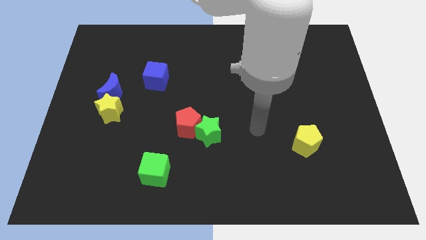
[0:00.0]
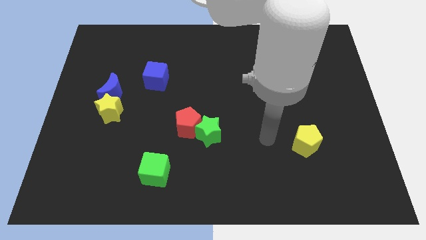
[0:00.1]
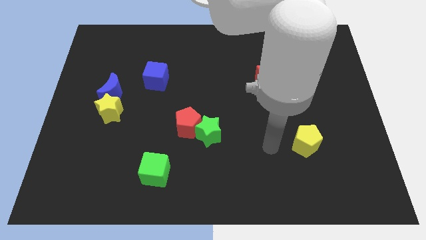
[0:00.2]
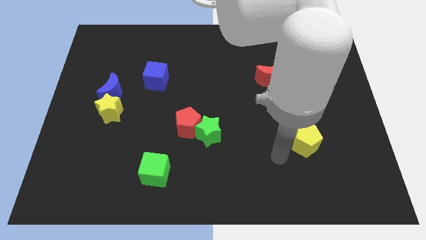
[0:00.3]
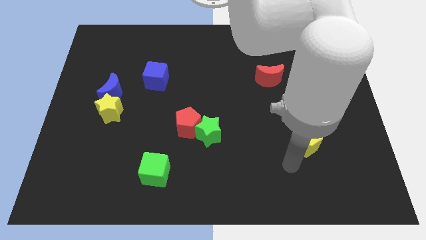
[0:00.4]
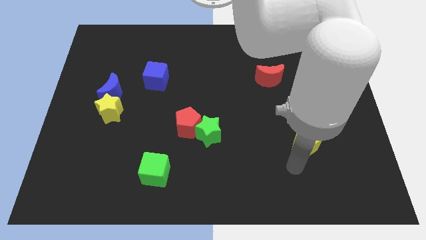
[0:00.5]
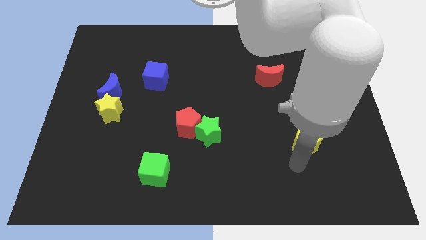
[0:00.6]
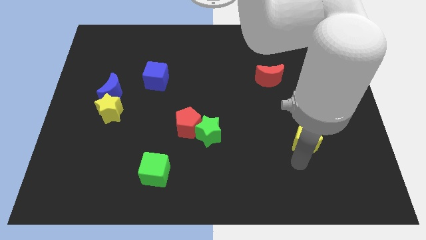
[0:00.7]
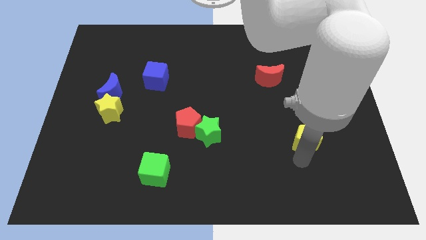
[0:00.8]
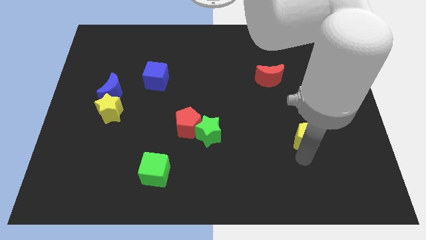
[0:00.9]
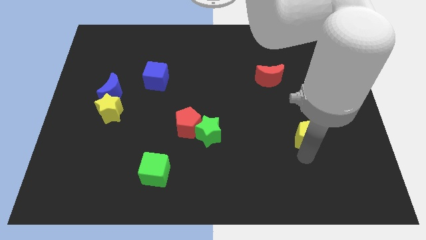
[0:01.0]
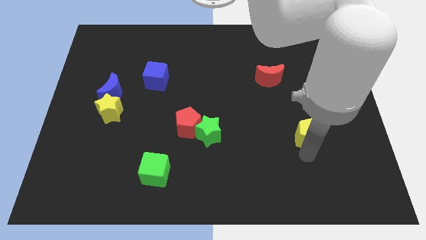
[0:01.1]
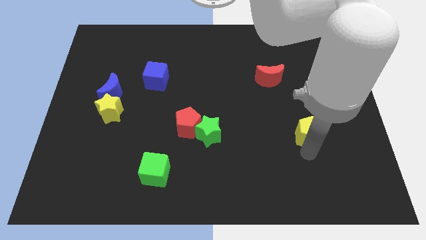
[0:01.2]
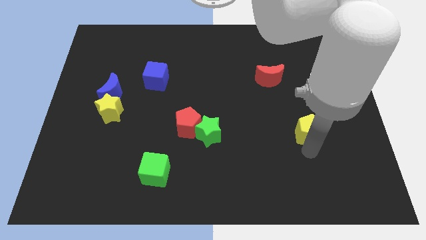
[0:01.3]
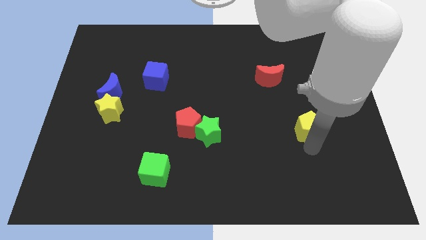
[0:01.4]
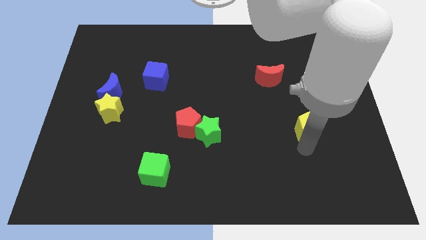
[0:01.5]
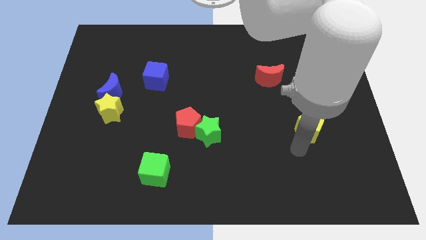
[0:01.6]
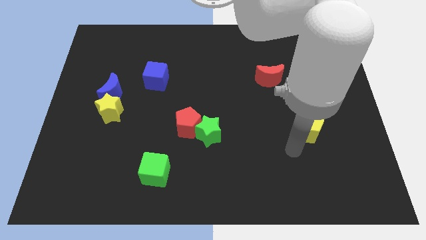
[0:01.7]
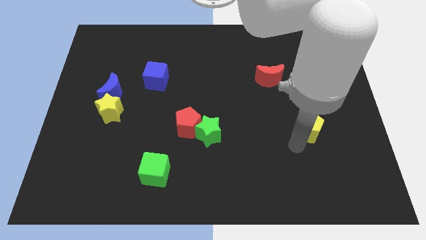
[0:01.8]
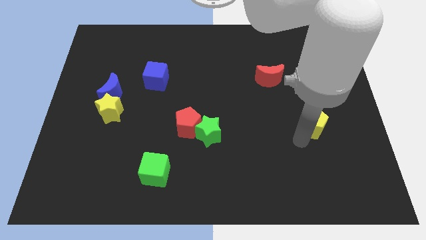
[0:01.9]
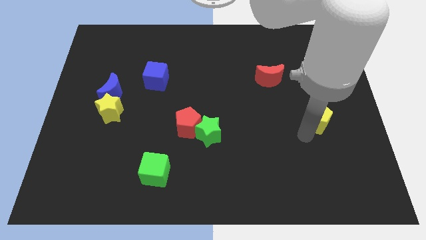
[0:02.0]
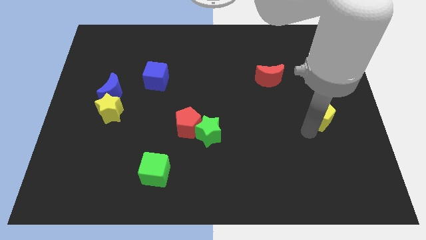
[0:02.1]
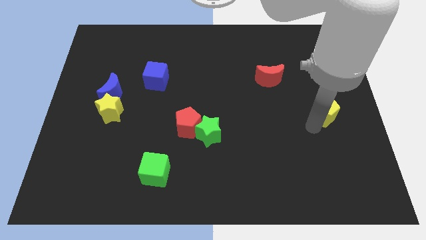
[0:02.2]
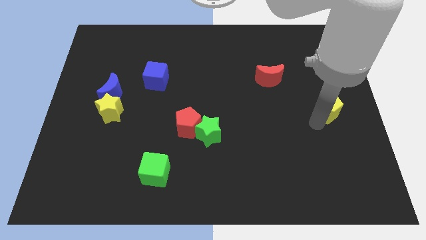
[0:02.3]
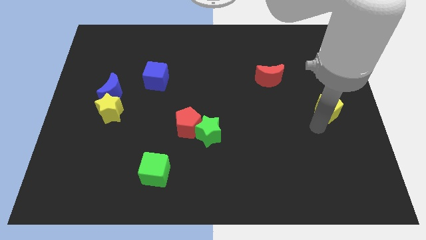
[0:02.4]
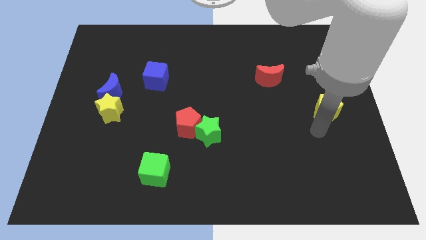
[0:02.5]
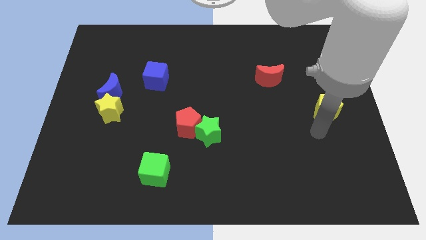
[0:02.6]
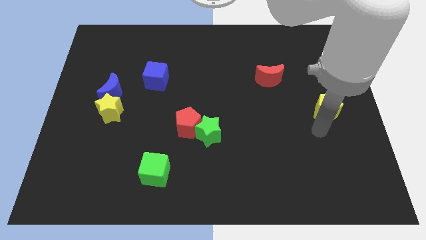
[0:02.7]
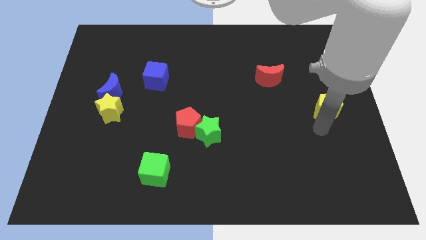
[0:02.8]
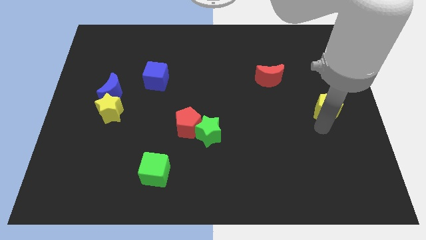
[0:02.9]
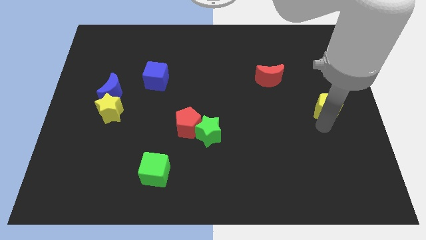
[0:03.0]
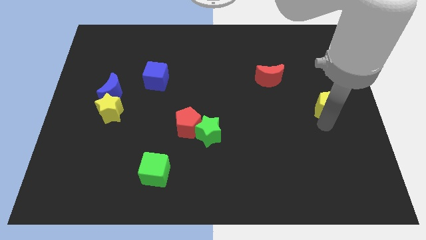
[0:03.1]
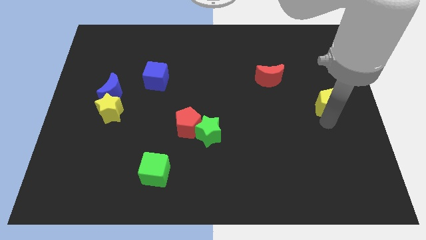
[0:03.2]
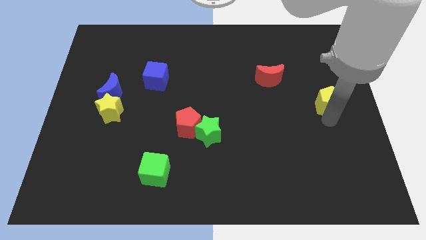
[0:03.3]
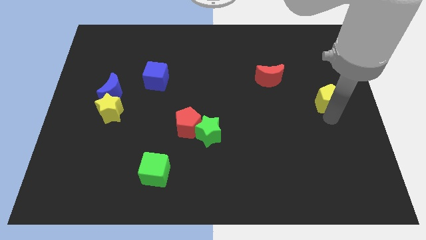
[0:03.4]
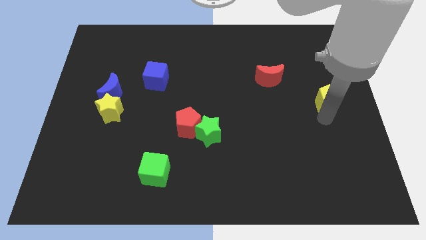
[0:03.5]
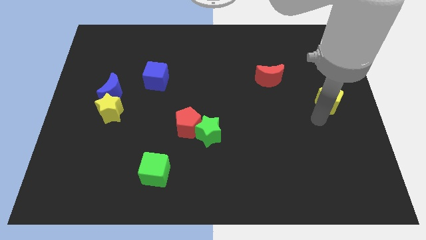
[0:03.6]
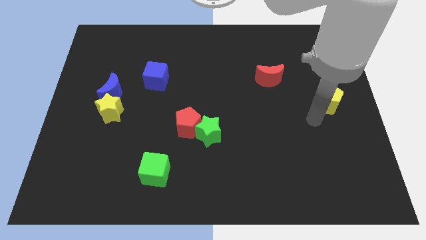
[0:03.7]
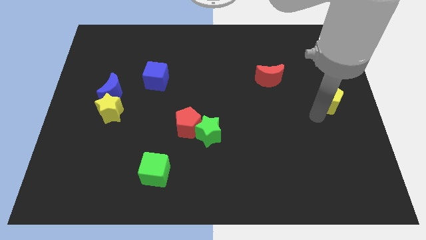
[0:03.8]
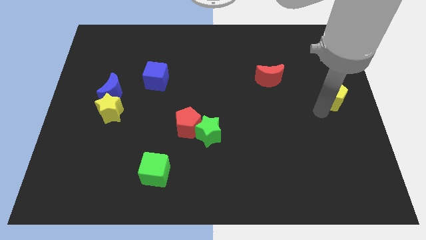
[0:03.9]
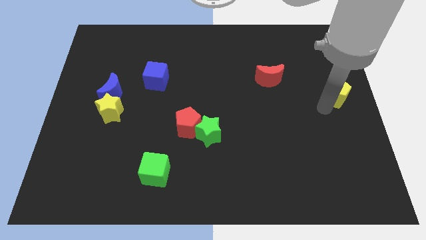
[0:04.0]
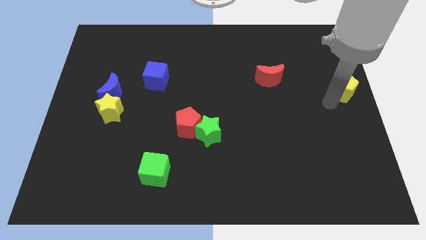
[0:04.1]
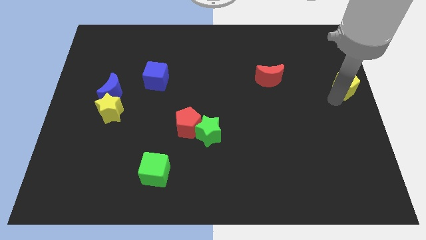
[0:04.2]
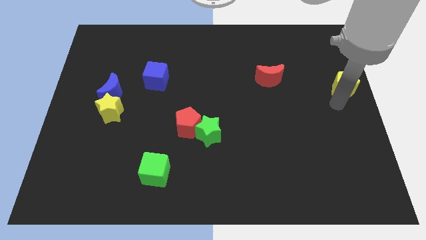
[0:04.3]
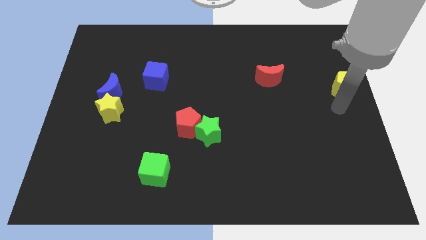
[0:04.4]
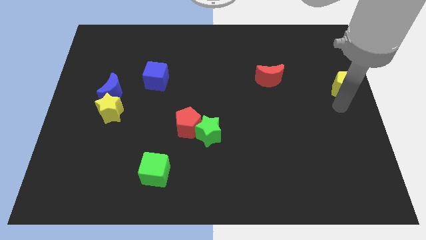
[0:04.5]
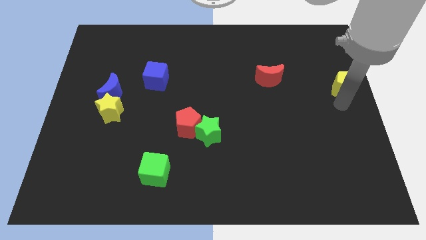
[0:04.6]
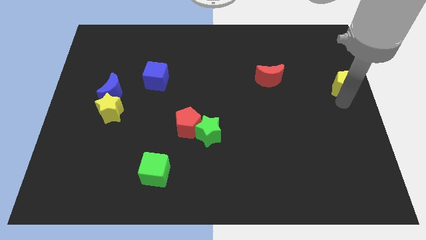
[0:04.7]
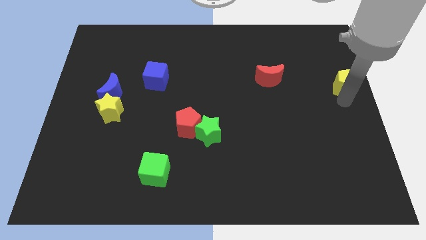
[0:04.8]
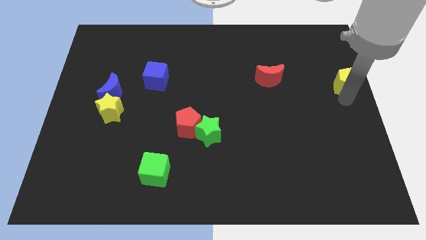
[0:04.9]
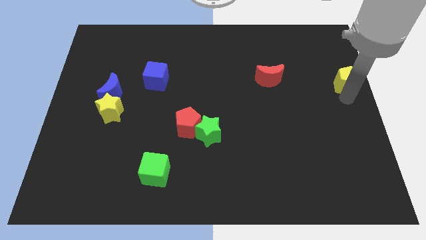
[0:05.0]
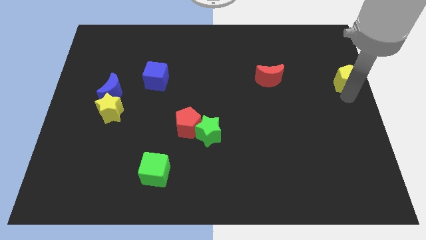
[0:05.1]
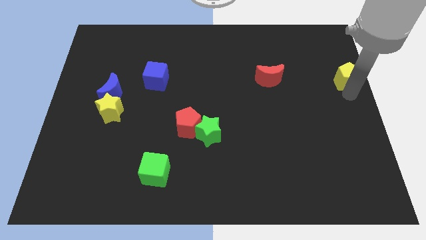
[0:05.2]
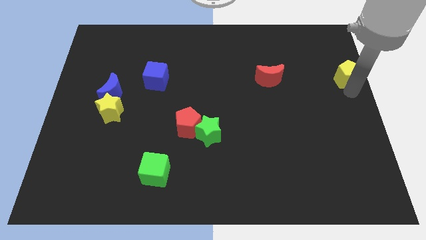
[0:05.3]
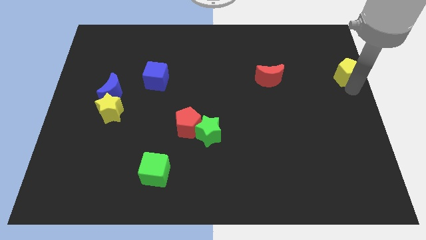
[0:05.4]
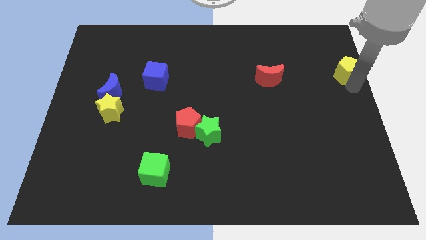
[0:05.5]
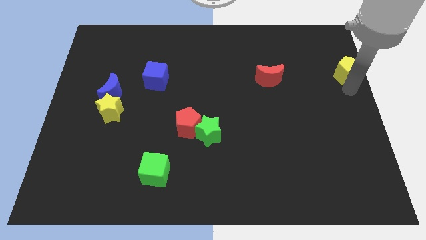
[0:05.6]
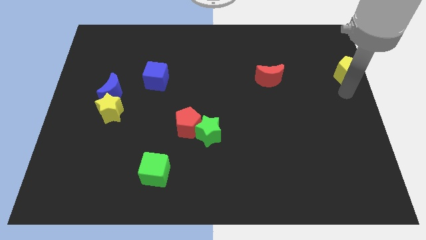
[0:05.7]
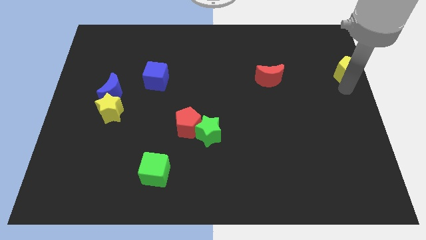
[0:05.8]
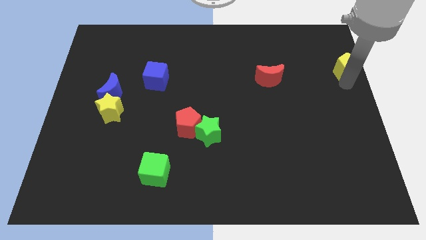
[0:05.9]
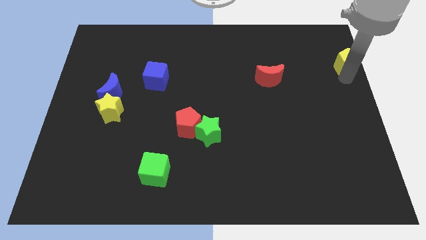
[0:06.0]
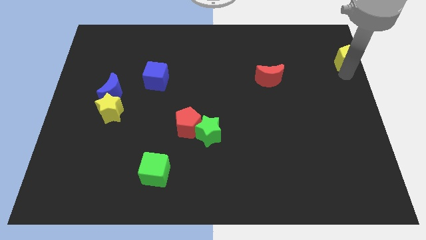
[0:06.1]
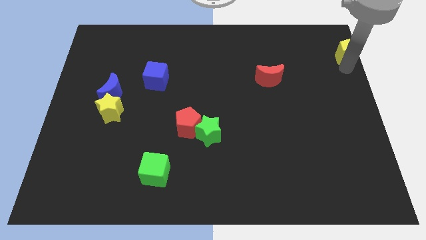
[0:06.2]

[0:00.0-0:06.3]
put the yellow pentagon to the top right

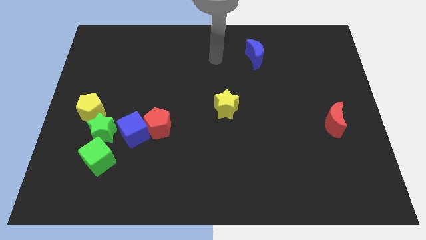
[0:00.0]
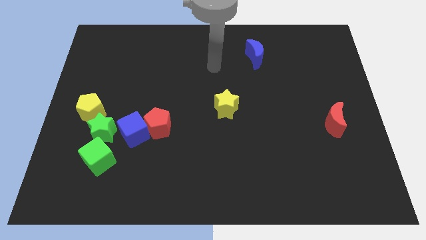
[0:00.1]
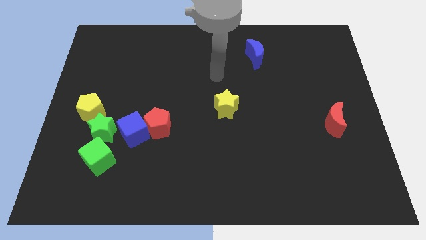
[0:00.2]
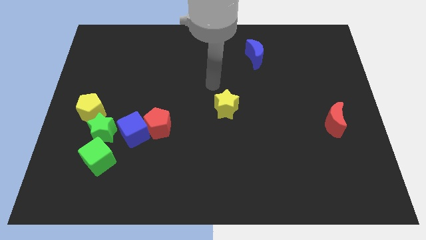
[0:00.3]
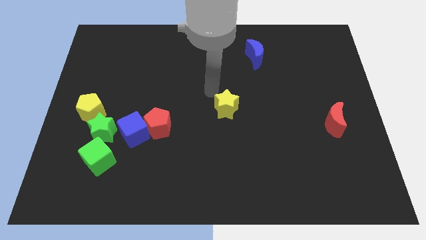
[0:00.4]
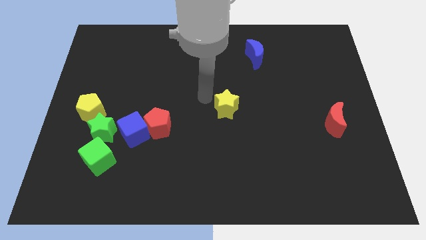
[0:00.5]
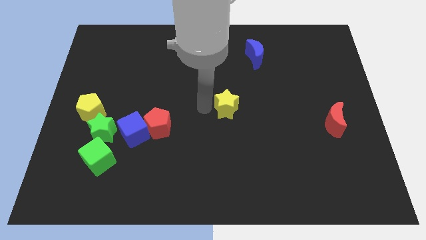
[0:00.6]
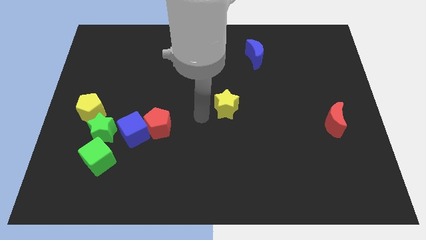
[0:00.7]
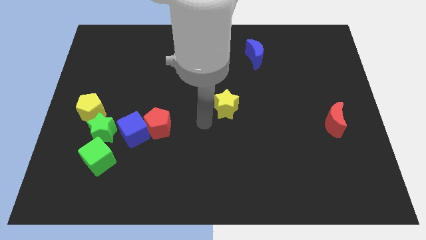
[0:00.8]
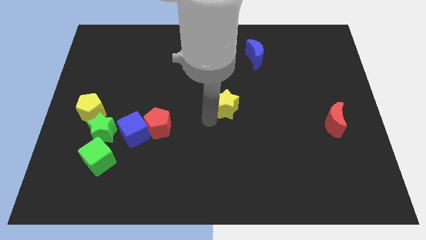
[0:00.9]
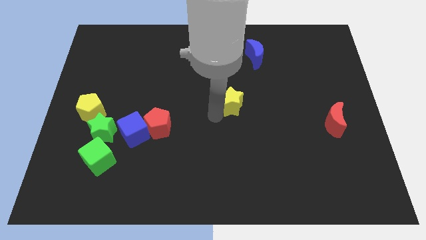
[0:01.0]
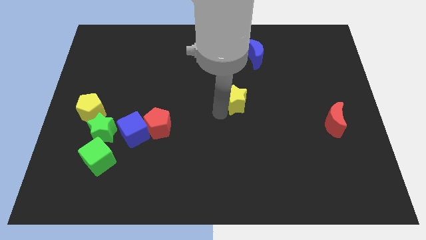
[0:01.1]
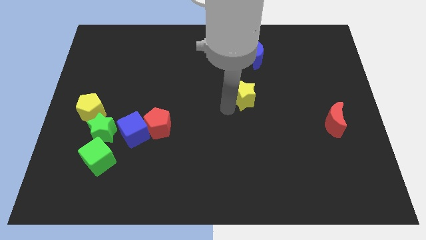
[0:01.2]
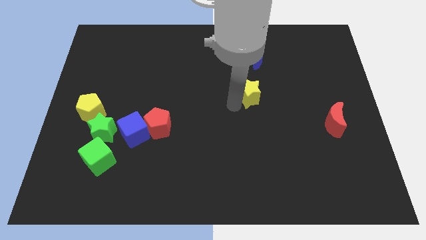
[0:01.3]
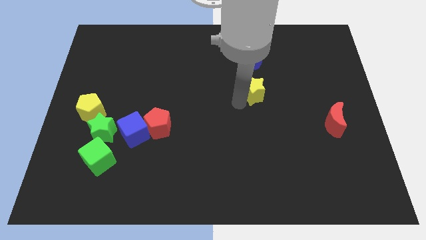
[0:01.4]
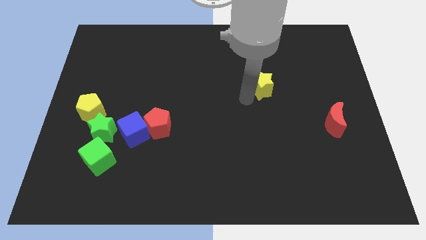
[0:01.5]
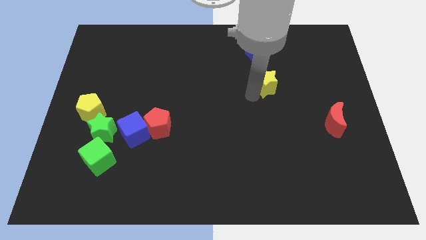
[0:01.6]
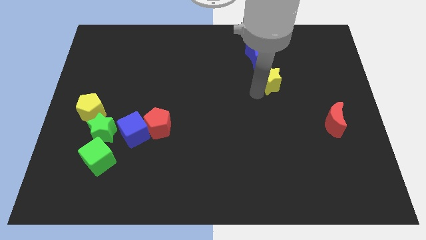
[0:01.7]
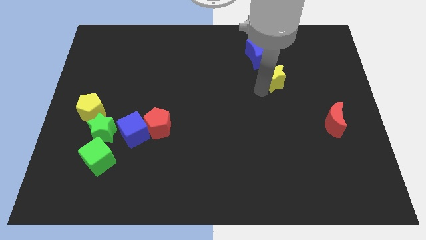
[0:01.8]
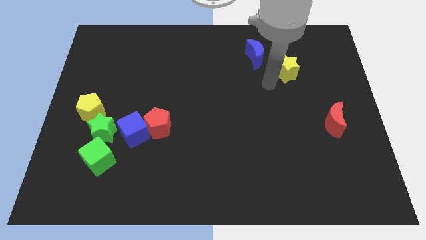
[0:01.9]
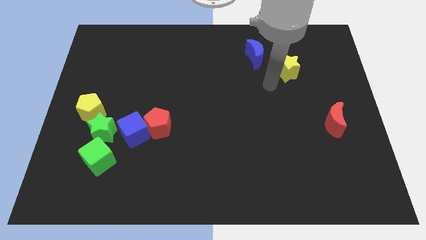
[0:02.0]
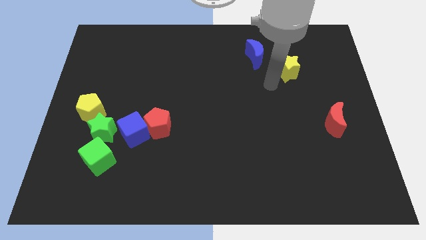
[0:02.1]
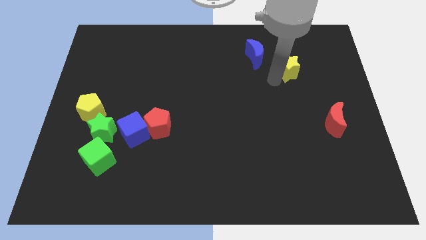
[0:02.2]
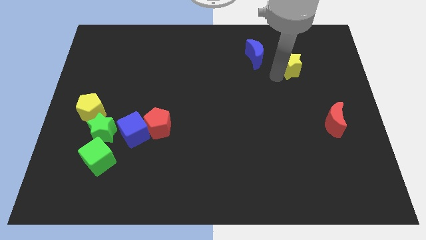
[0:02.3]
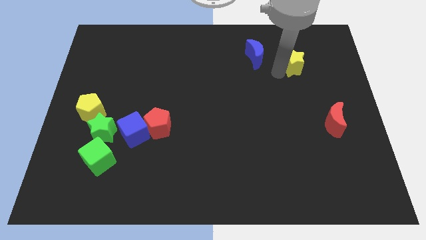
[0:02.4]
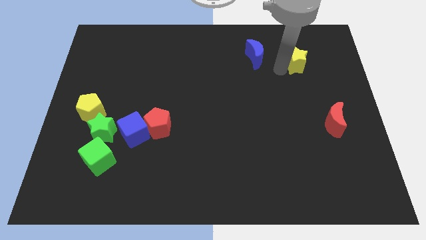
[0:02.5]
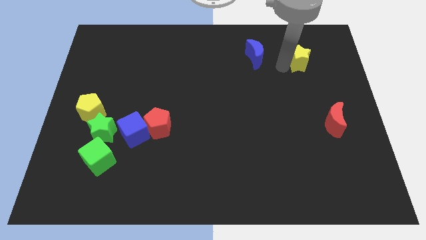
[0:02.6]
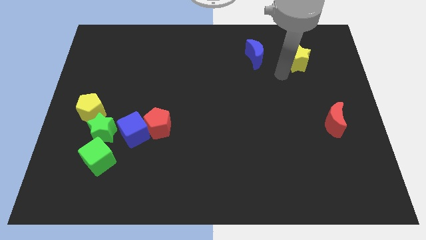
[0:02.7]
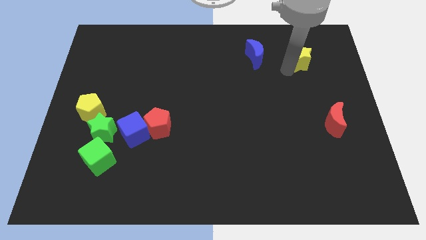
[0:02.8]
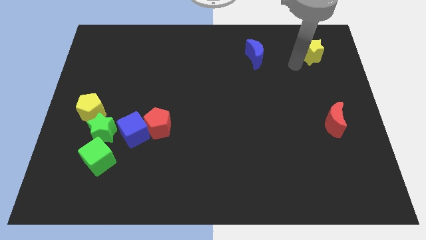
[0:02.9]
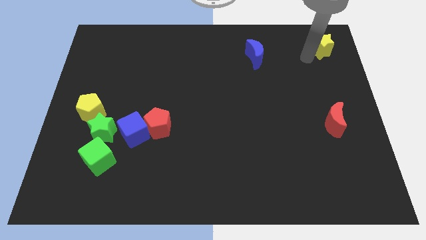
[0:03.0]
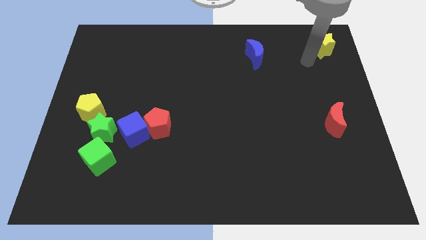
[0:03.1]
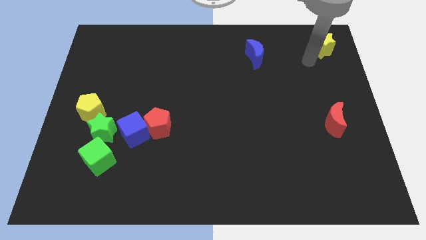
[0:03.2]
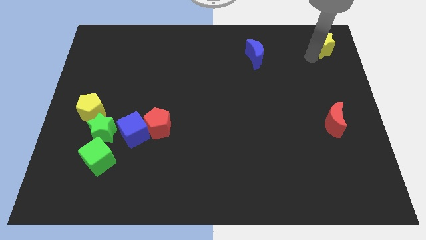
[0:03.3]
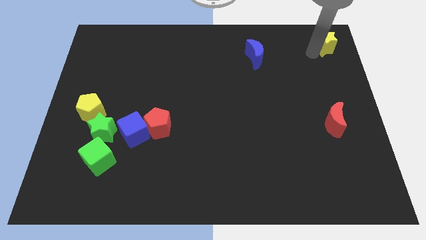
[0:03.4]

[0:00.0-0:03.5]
slide the yellow star to the top right of the board
